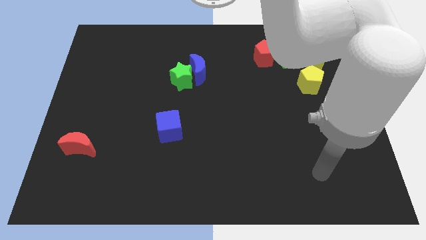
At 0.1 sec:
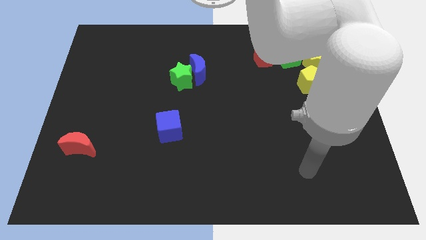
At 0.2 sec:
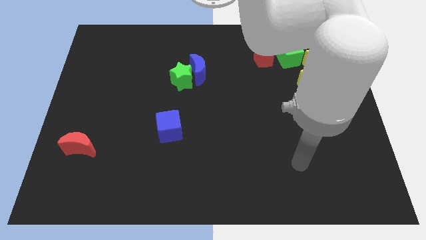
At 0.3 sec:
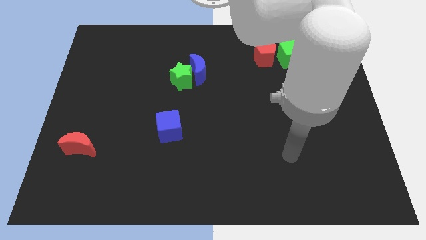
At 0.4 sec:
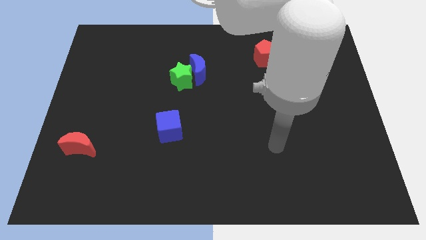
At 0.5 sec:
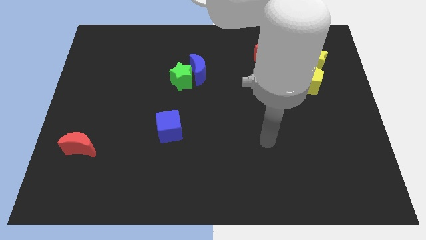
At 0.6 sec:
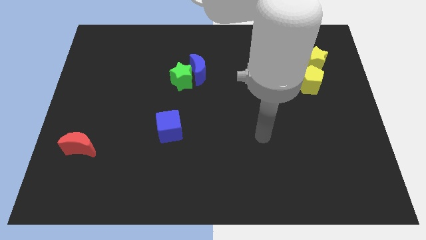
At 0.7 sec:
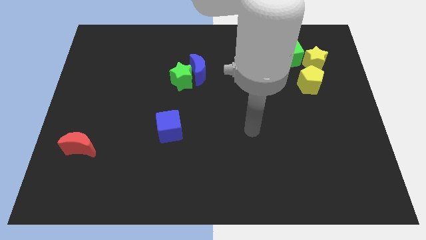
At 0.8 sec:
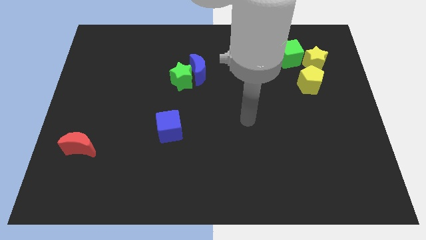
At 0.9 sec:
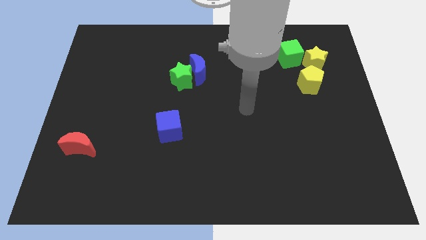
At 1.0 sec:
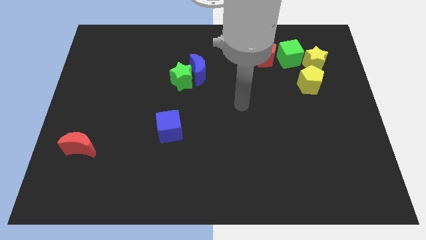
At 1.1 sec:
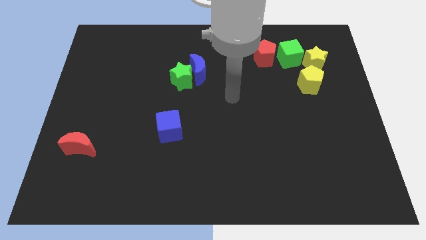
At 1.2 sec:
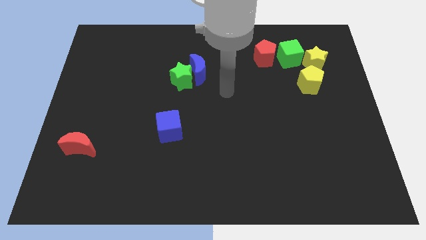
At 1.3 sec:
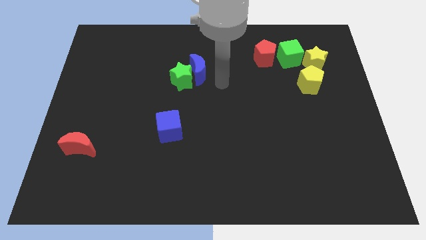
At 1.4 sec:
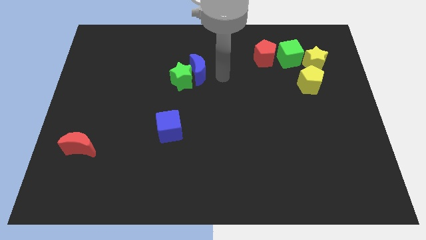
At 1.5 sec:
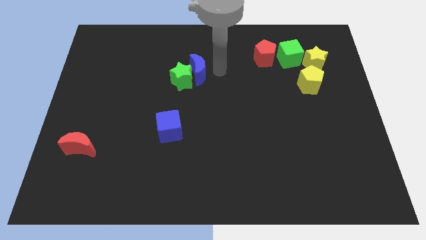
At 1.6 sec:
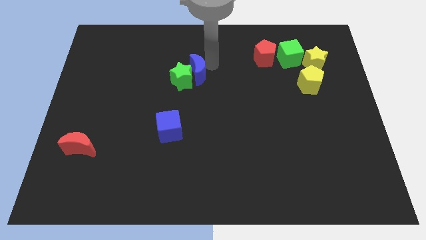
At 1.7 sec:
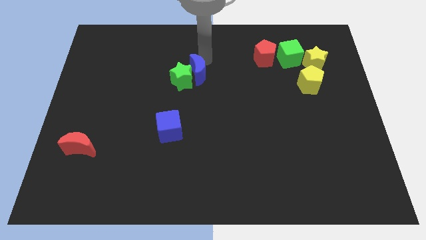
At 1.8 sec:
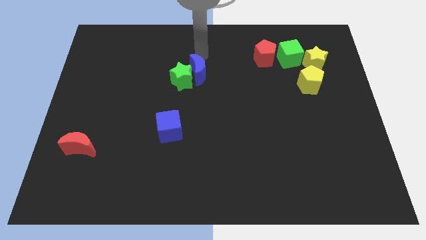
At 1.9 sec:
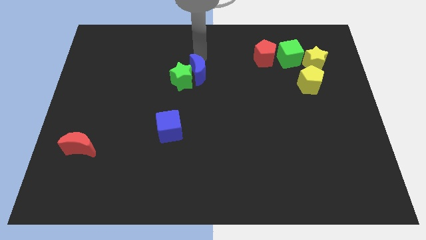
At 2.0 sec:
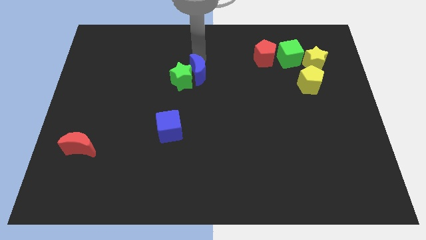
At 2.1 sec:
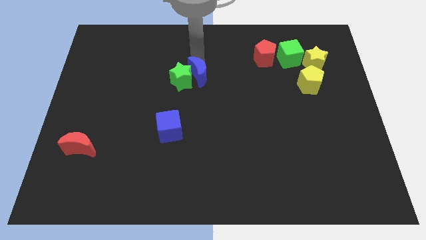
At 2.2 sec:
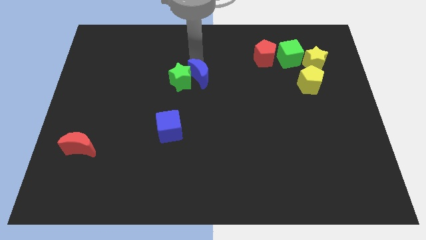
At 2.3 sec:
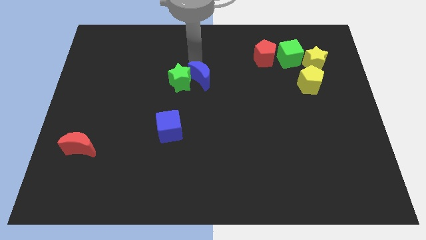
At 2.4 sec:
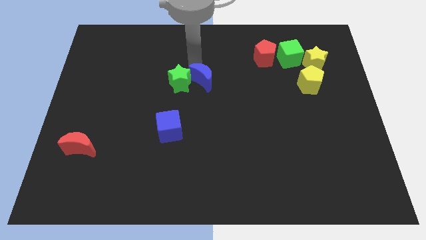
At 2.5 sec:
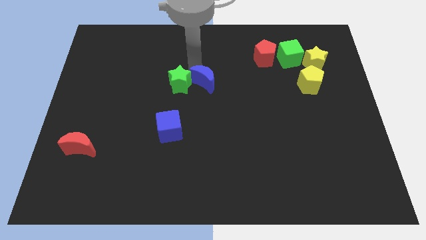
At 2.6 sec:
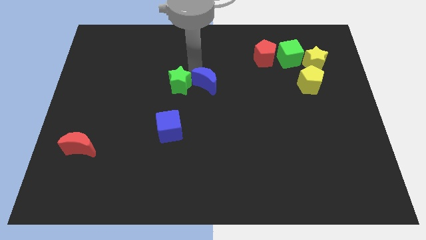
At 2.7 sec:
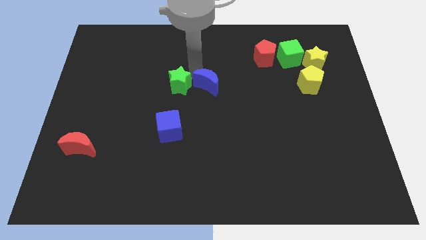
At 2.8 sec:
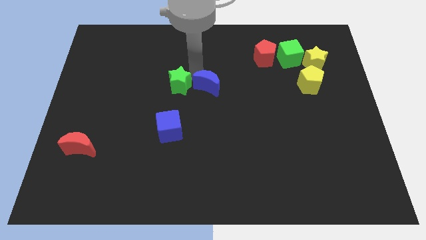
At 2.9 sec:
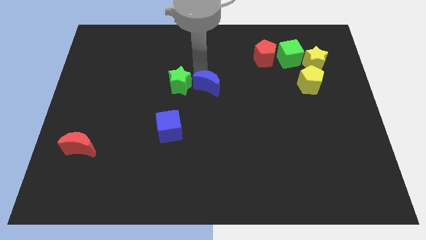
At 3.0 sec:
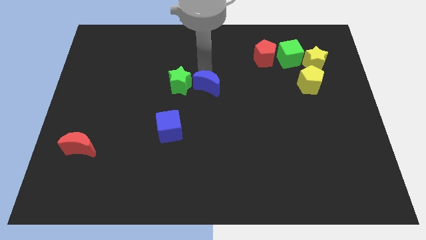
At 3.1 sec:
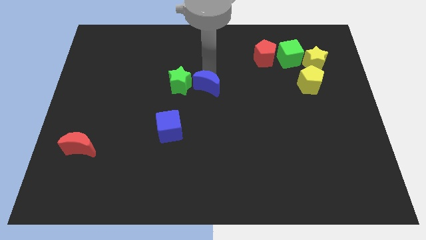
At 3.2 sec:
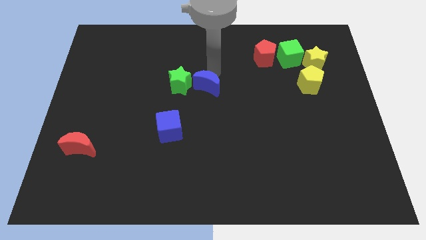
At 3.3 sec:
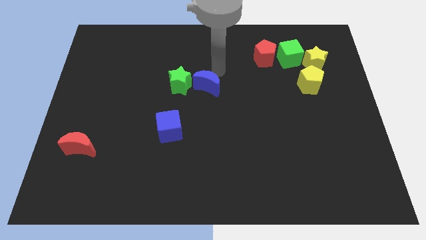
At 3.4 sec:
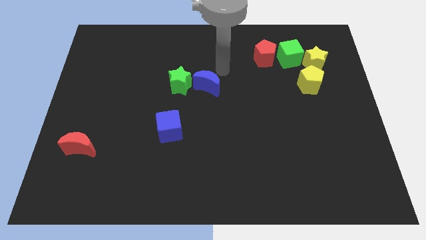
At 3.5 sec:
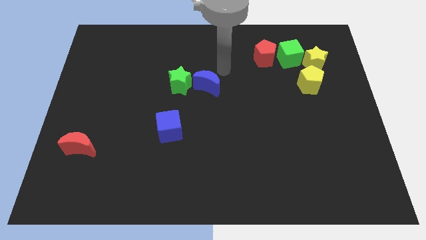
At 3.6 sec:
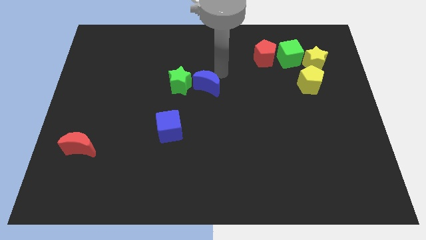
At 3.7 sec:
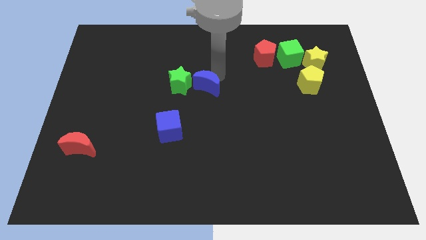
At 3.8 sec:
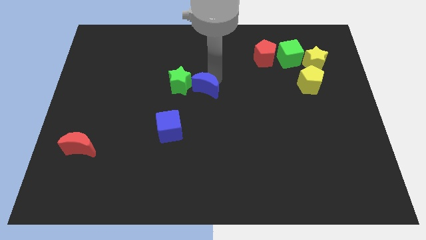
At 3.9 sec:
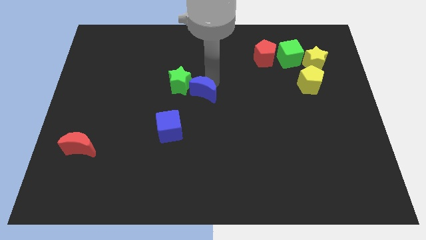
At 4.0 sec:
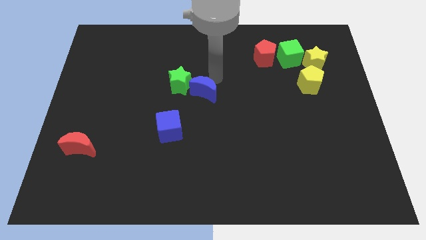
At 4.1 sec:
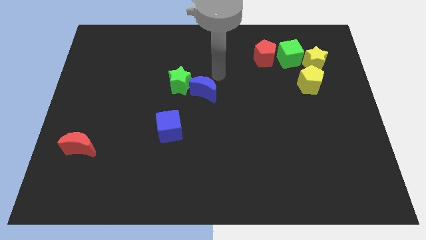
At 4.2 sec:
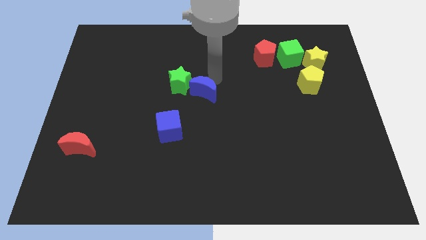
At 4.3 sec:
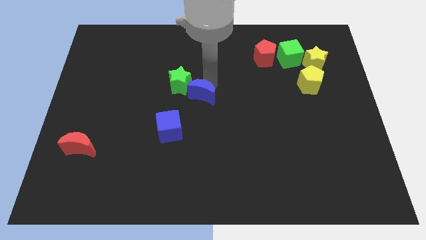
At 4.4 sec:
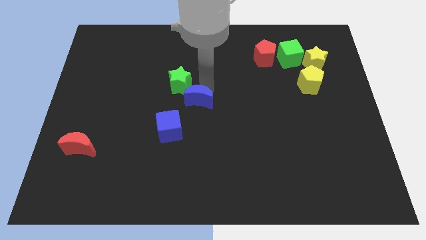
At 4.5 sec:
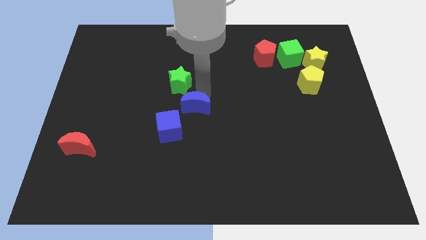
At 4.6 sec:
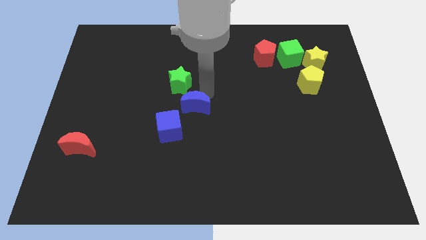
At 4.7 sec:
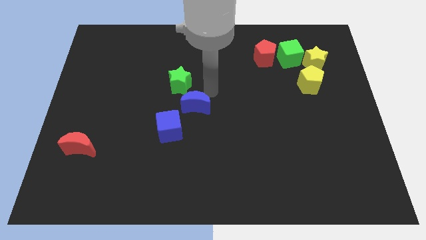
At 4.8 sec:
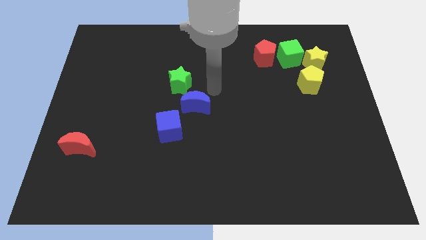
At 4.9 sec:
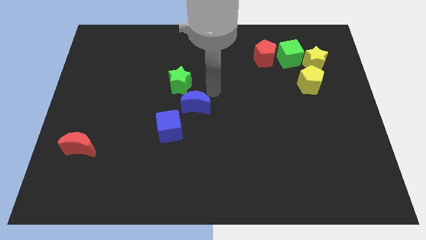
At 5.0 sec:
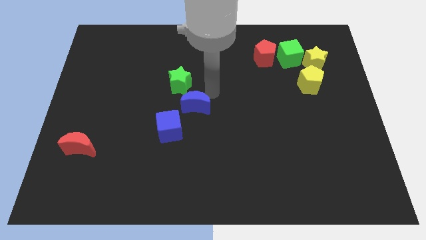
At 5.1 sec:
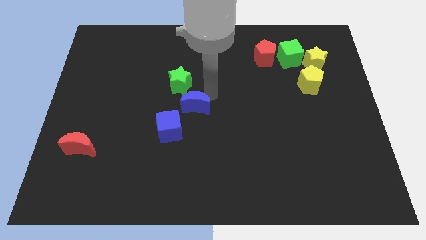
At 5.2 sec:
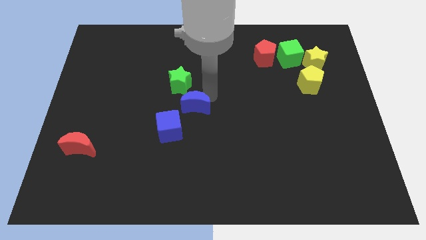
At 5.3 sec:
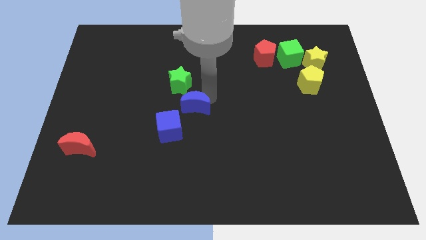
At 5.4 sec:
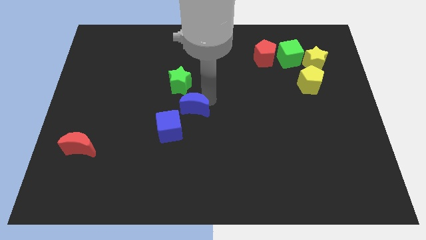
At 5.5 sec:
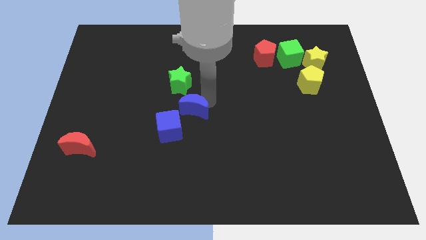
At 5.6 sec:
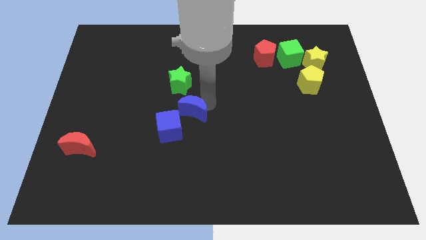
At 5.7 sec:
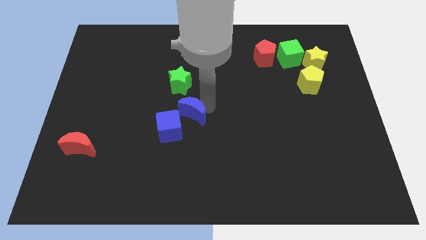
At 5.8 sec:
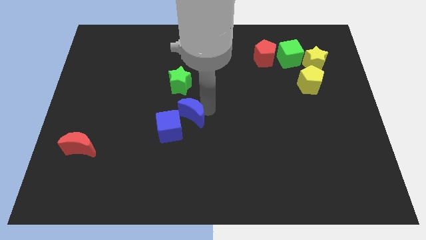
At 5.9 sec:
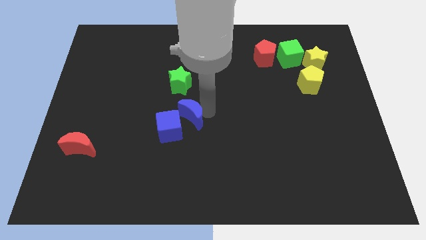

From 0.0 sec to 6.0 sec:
slide the blue moon to the blue cube
